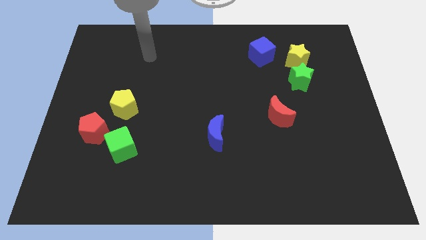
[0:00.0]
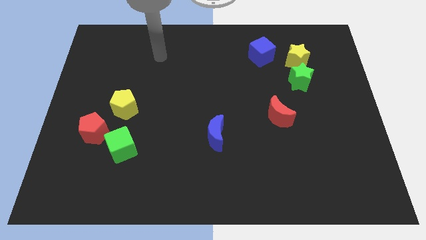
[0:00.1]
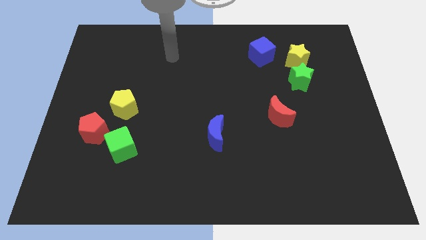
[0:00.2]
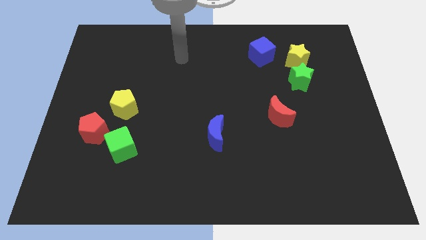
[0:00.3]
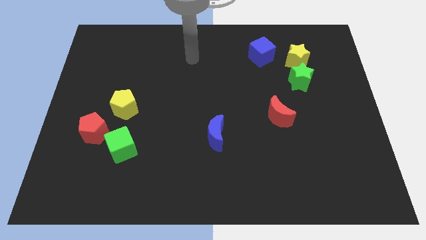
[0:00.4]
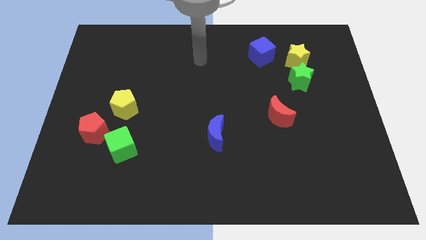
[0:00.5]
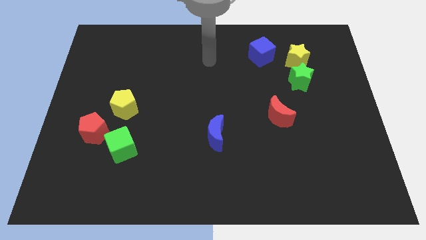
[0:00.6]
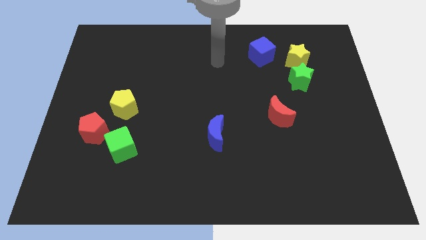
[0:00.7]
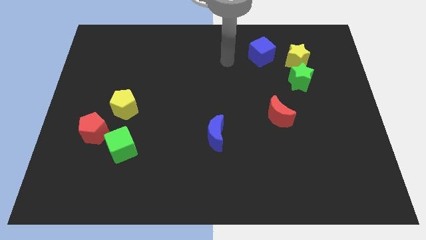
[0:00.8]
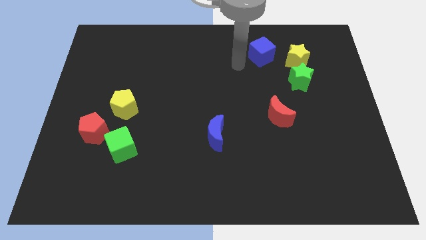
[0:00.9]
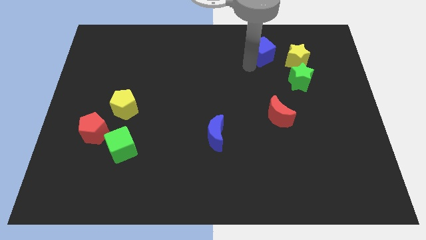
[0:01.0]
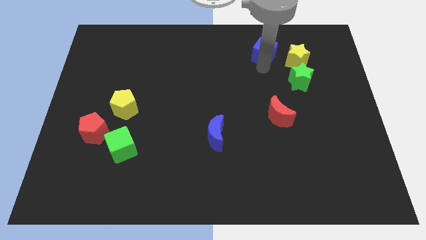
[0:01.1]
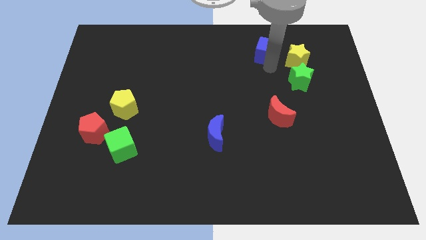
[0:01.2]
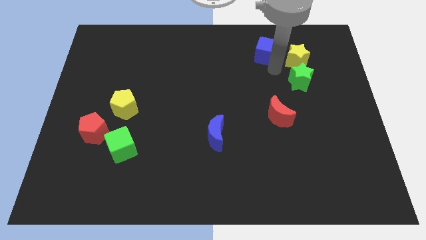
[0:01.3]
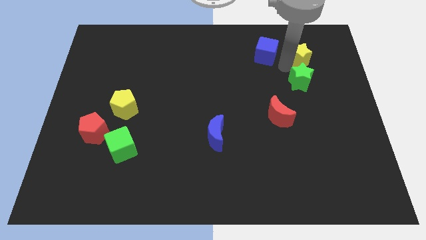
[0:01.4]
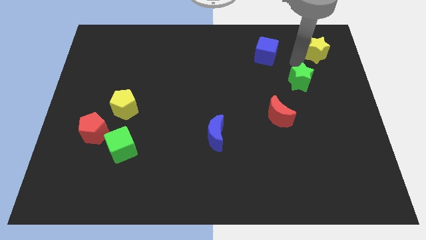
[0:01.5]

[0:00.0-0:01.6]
pull the green star apart from the yellow star

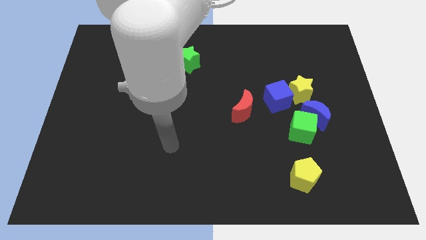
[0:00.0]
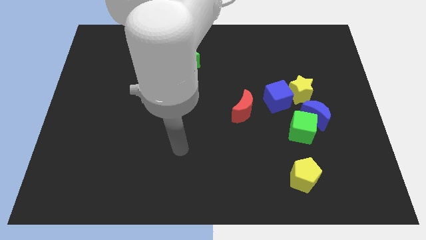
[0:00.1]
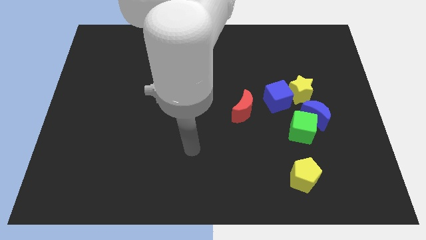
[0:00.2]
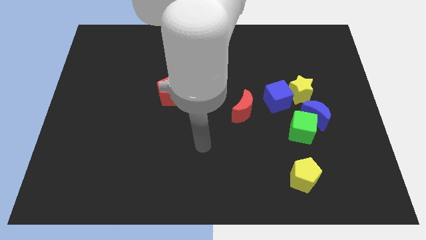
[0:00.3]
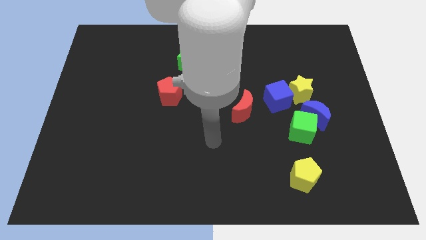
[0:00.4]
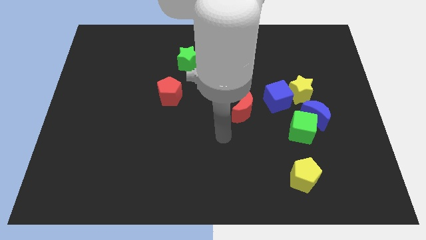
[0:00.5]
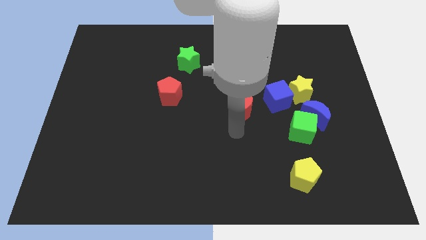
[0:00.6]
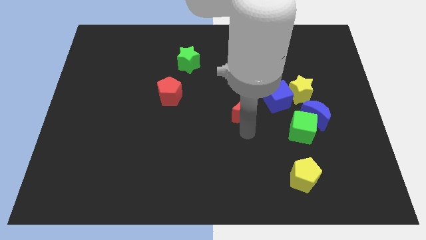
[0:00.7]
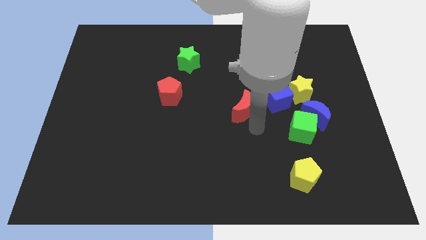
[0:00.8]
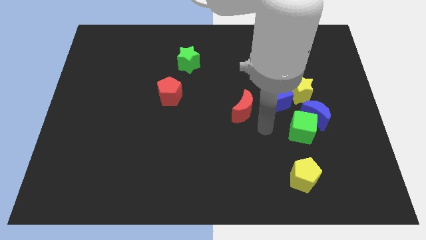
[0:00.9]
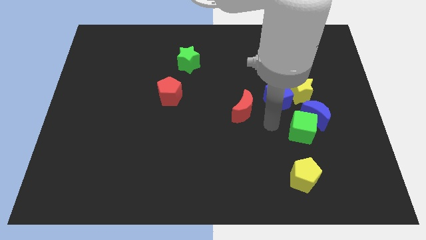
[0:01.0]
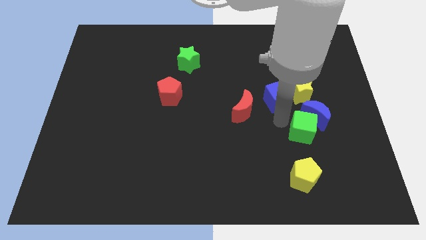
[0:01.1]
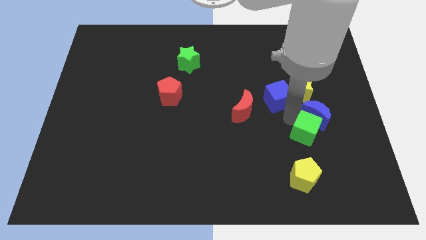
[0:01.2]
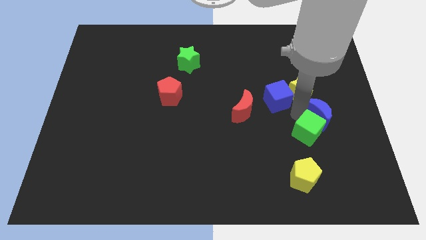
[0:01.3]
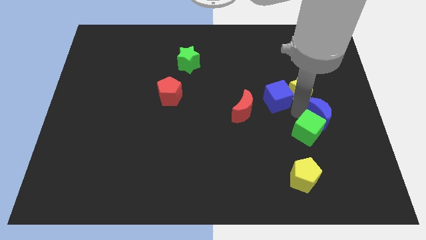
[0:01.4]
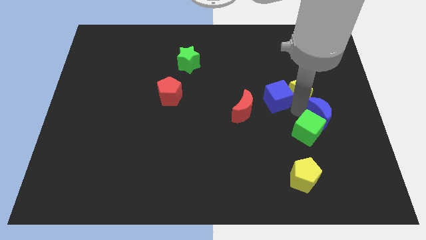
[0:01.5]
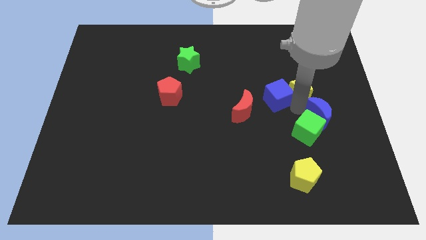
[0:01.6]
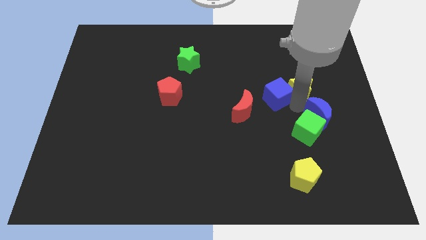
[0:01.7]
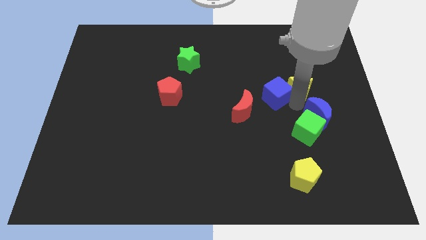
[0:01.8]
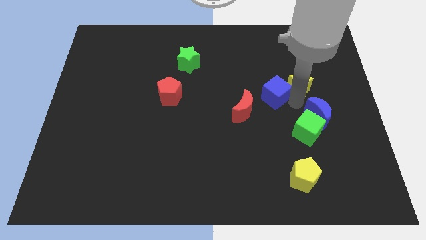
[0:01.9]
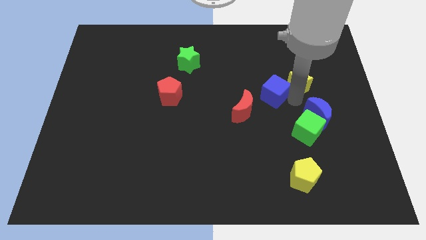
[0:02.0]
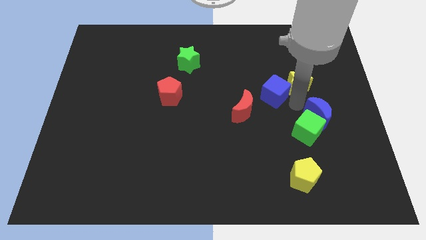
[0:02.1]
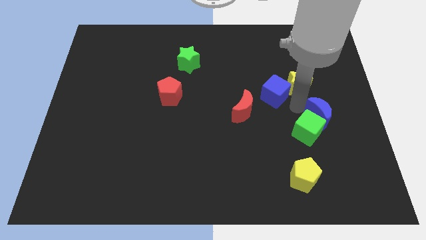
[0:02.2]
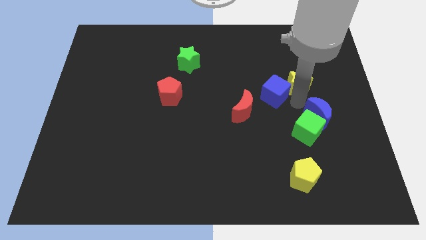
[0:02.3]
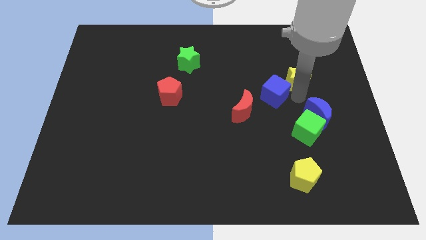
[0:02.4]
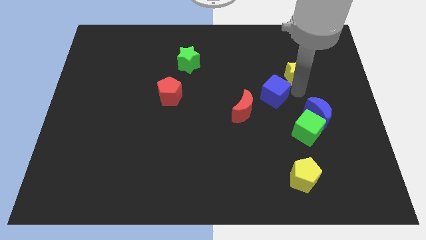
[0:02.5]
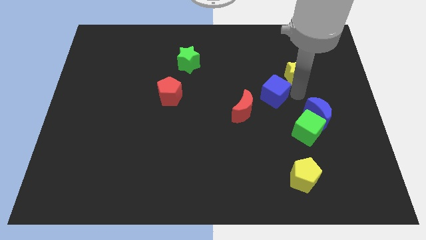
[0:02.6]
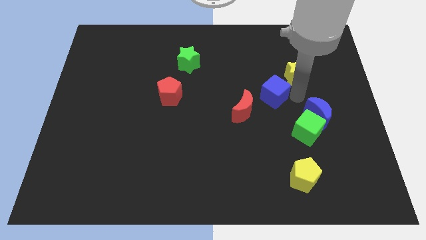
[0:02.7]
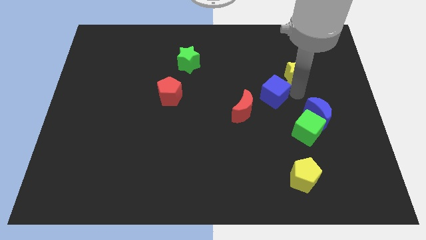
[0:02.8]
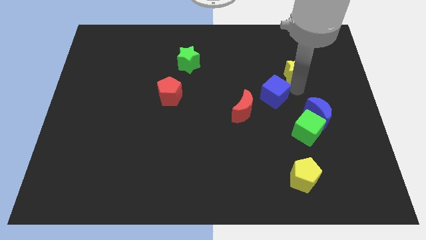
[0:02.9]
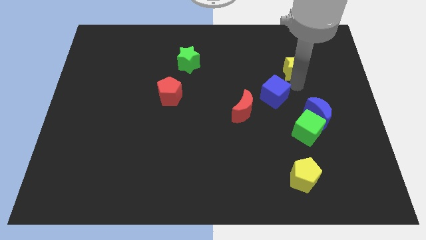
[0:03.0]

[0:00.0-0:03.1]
pull the yellow star apart from the blue cube and blue moon

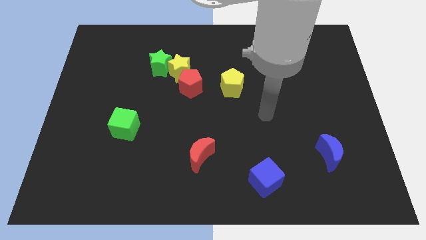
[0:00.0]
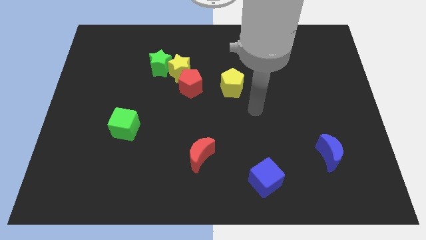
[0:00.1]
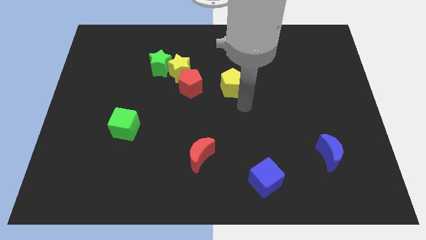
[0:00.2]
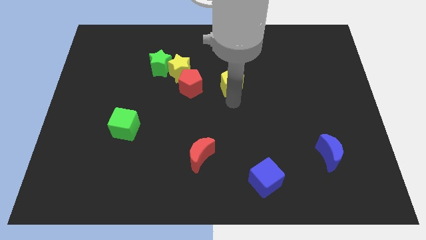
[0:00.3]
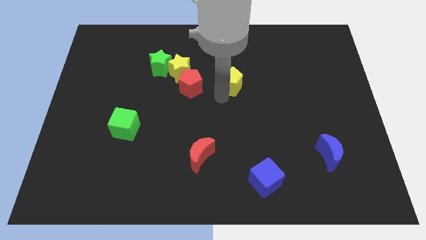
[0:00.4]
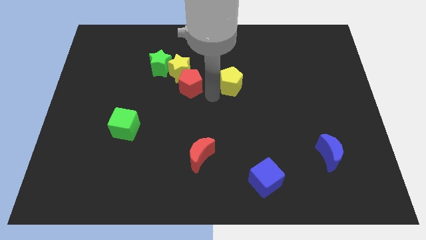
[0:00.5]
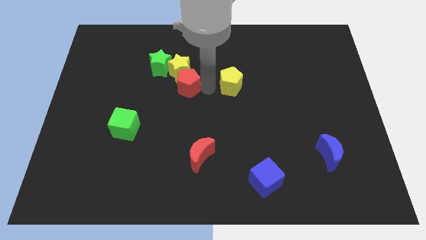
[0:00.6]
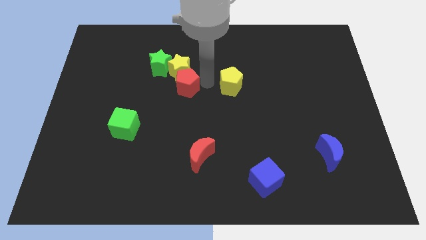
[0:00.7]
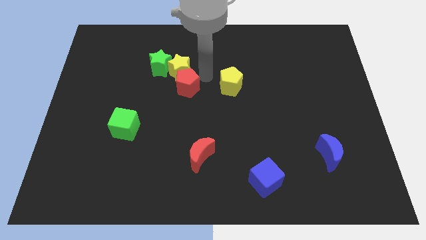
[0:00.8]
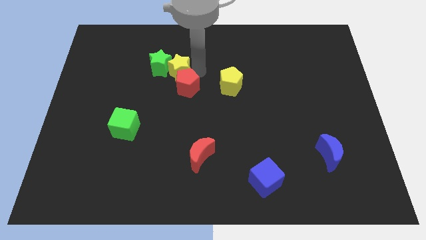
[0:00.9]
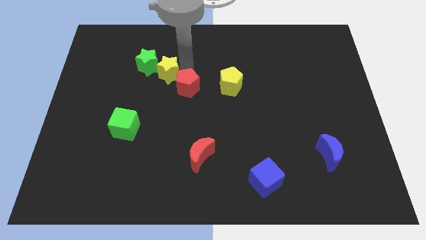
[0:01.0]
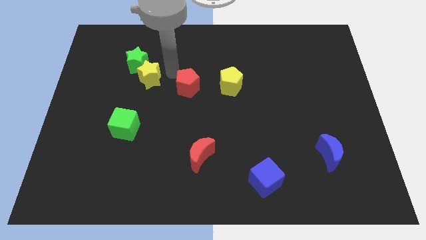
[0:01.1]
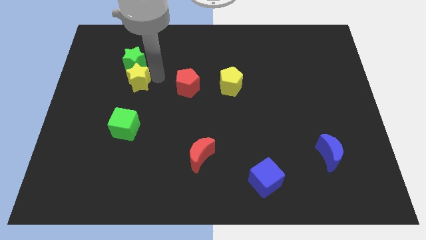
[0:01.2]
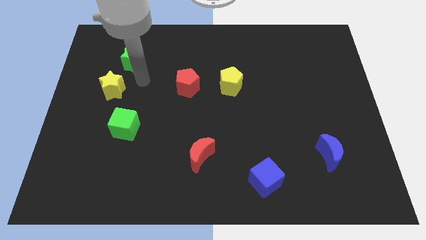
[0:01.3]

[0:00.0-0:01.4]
move the green star away from the yellow star

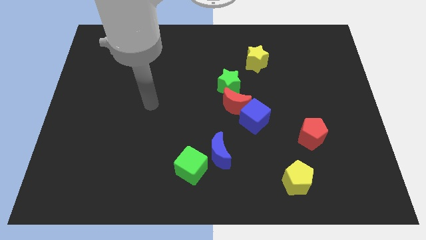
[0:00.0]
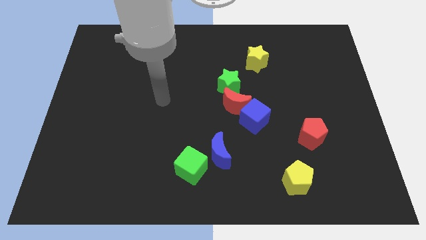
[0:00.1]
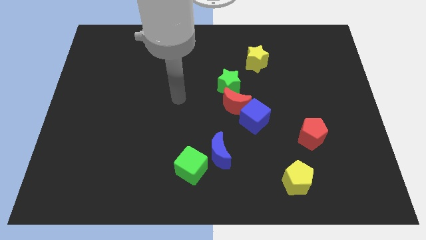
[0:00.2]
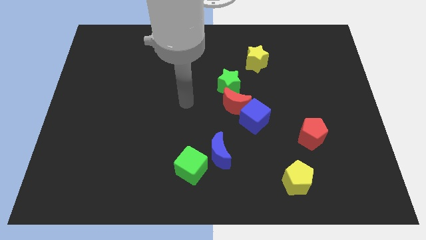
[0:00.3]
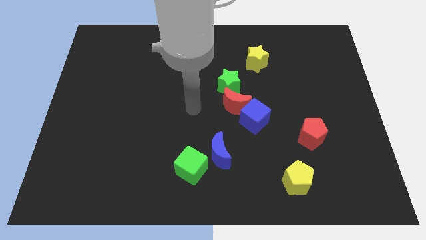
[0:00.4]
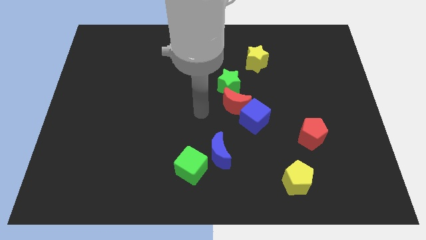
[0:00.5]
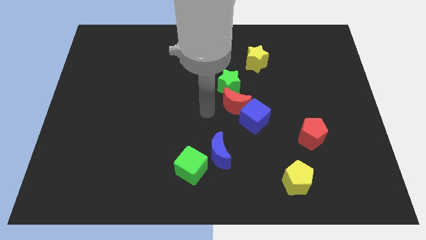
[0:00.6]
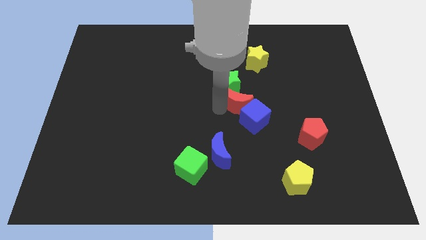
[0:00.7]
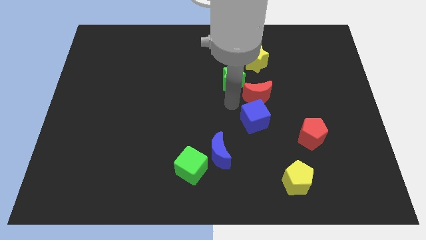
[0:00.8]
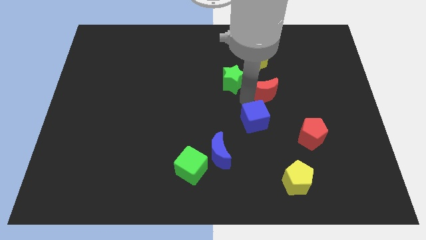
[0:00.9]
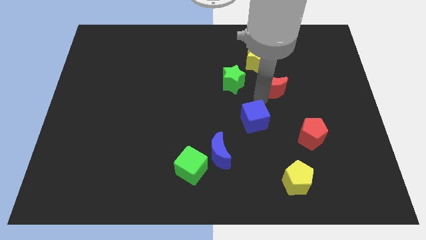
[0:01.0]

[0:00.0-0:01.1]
move the blue cube away from the red moon

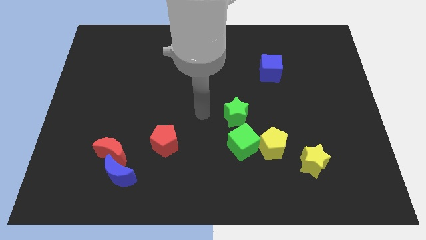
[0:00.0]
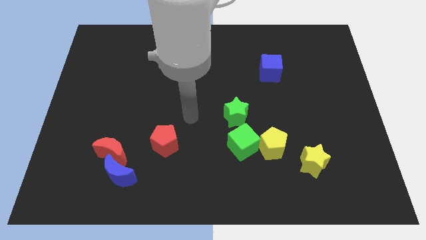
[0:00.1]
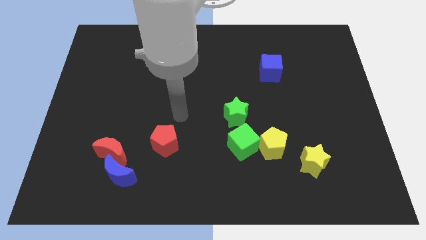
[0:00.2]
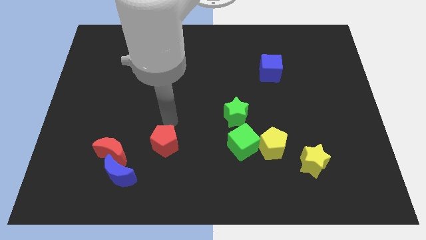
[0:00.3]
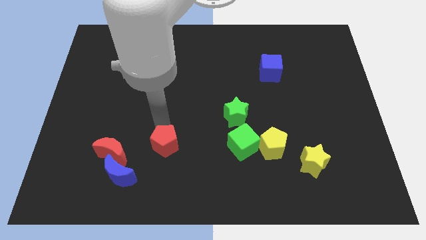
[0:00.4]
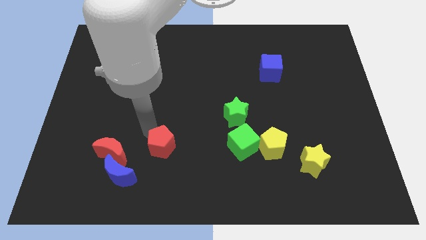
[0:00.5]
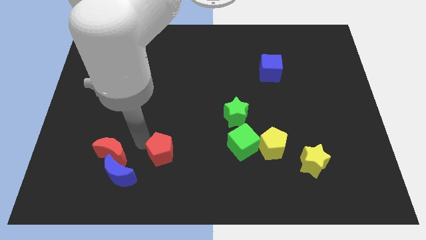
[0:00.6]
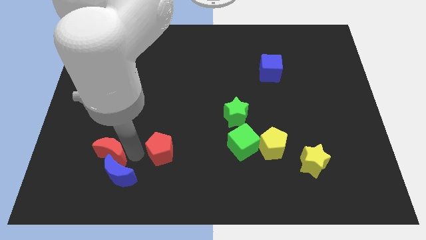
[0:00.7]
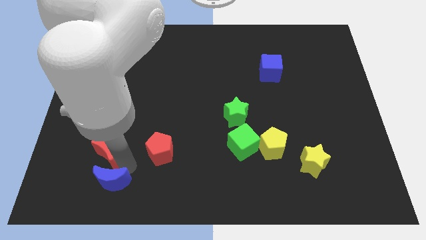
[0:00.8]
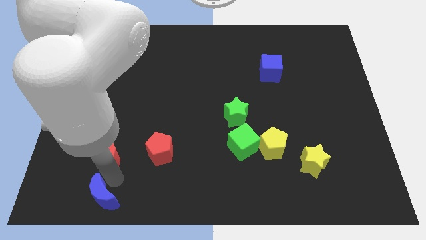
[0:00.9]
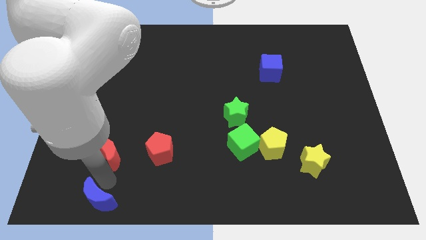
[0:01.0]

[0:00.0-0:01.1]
separate the red moon from the blue moon

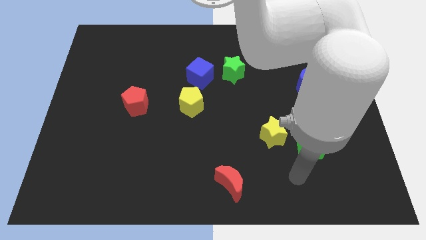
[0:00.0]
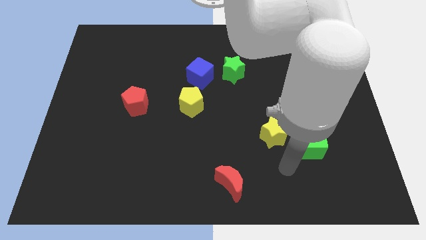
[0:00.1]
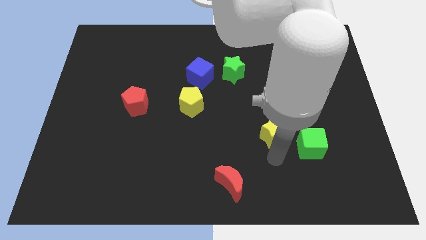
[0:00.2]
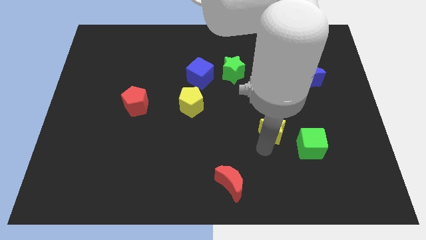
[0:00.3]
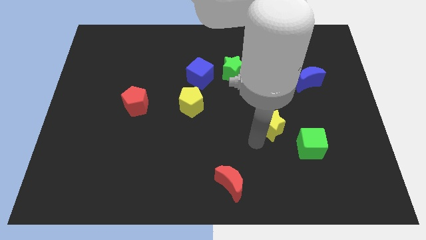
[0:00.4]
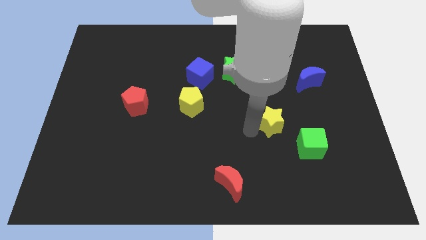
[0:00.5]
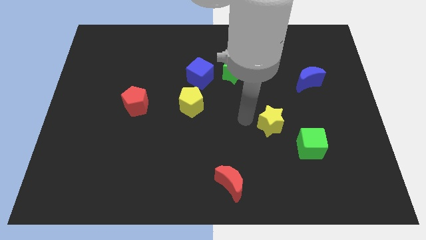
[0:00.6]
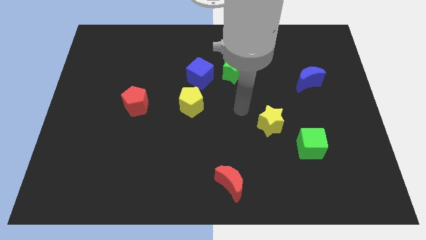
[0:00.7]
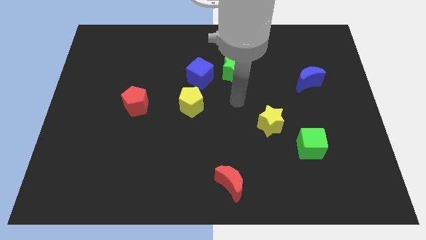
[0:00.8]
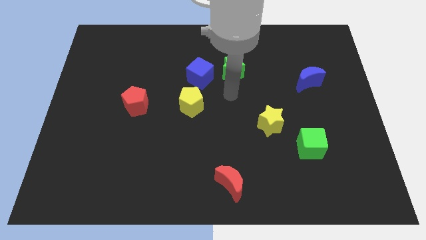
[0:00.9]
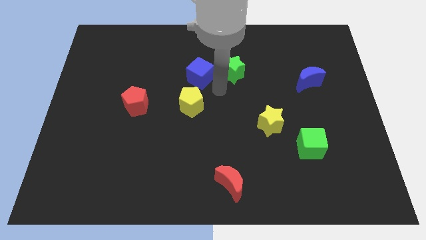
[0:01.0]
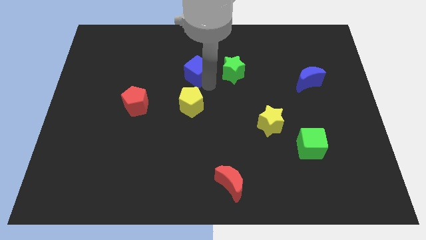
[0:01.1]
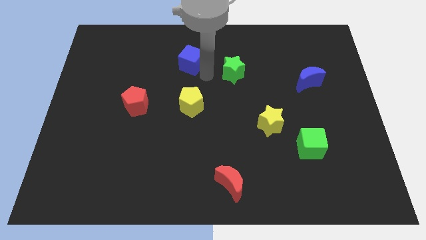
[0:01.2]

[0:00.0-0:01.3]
pull the green star apart from the blue cube
